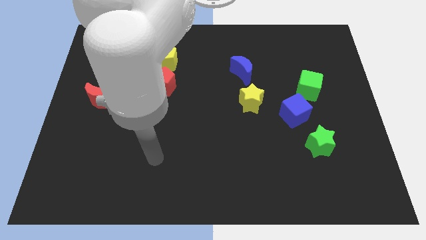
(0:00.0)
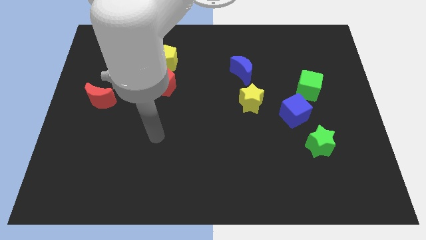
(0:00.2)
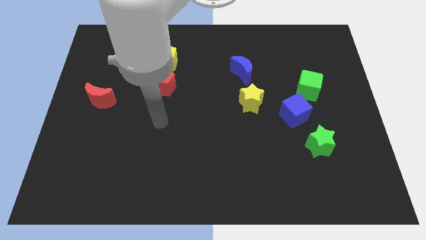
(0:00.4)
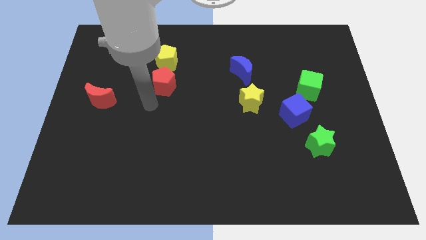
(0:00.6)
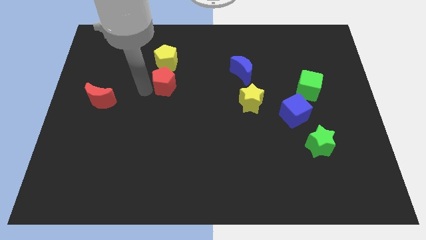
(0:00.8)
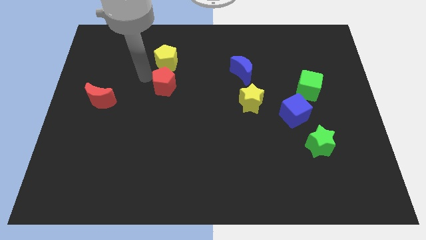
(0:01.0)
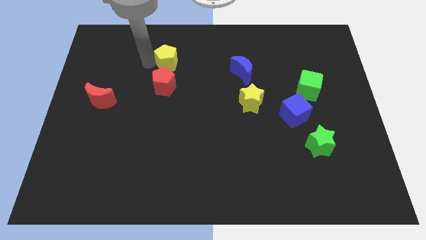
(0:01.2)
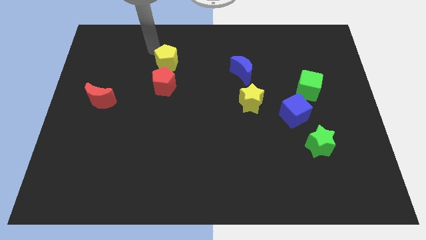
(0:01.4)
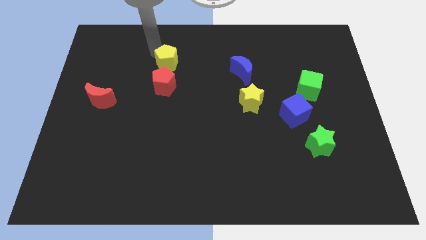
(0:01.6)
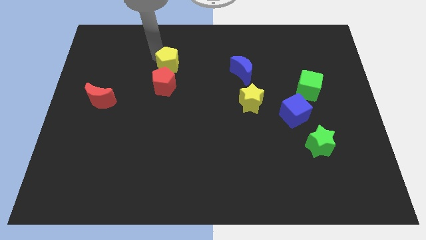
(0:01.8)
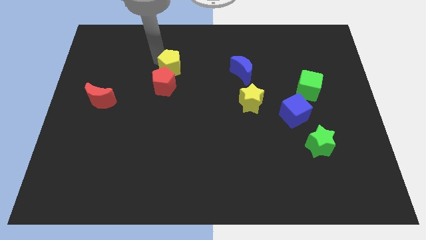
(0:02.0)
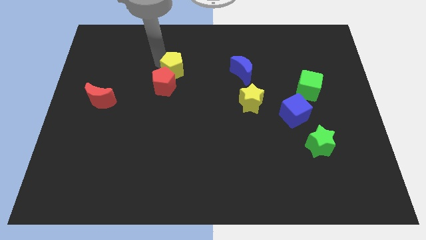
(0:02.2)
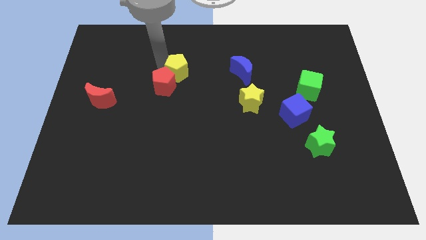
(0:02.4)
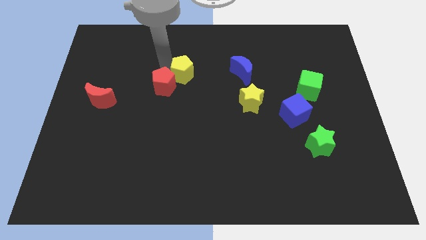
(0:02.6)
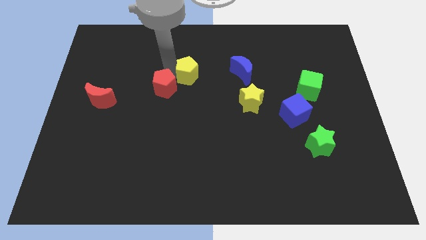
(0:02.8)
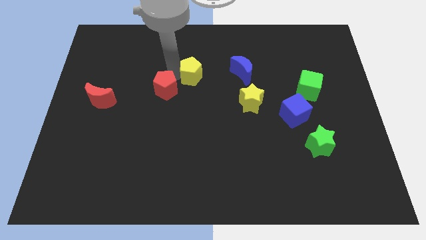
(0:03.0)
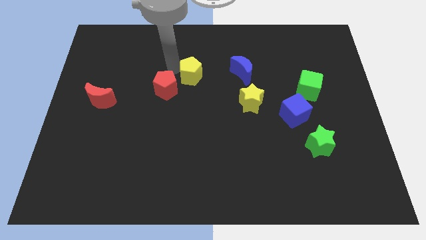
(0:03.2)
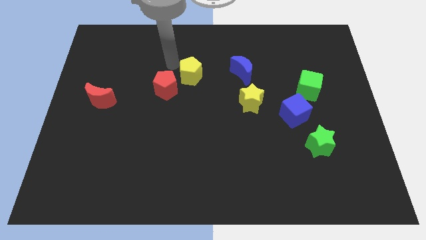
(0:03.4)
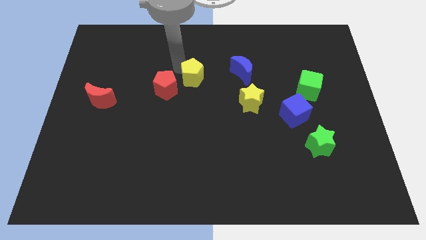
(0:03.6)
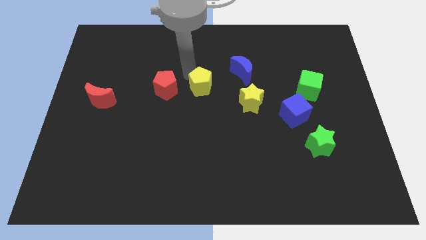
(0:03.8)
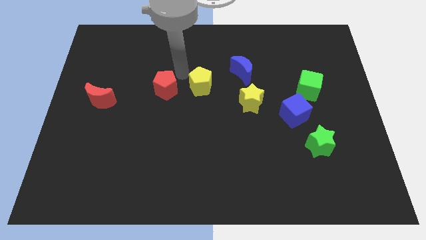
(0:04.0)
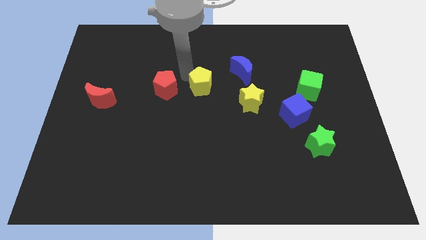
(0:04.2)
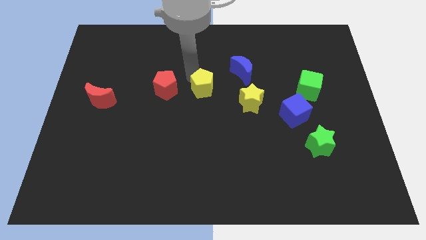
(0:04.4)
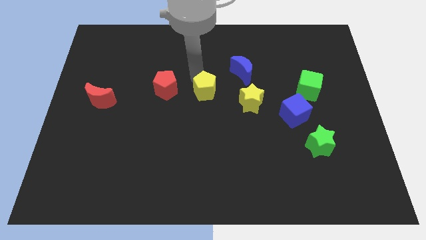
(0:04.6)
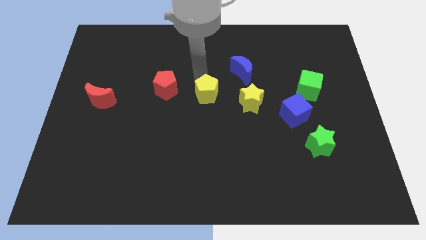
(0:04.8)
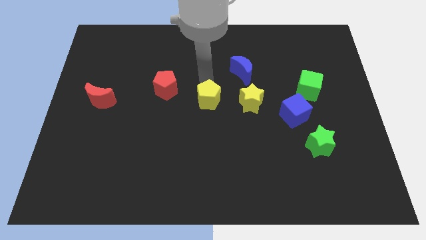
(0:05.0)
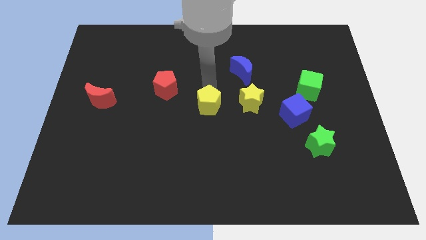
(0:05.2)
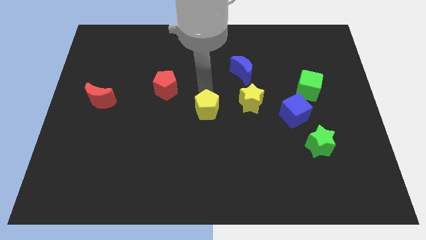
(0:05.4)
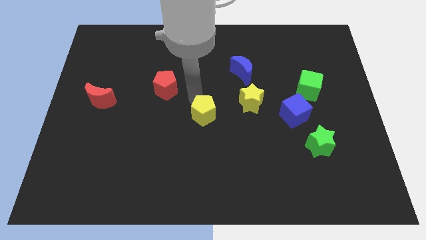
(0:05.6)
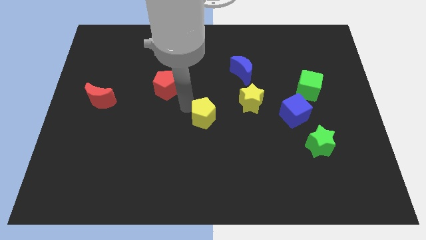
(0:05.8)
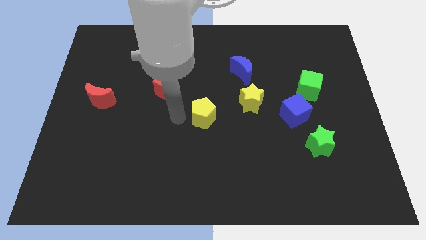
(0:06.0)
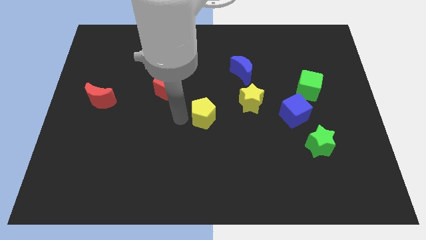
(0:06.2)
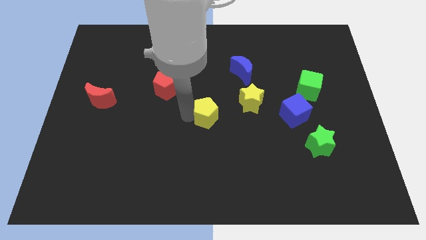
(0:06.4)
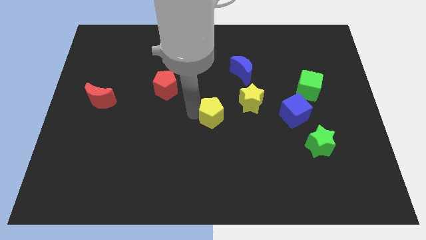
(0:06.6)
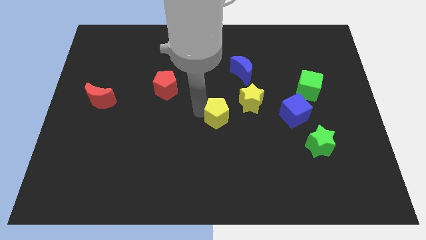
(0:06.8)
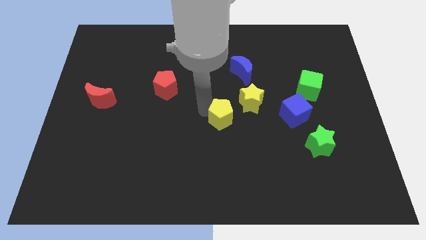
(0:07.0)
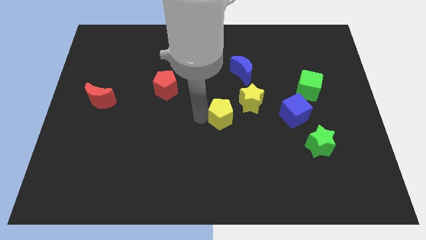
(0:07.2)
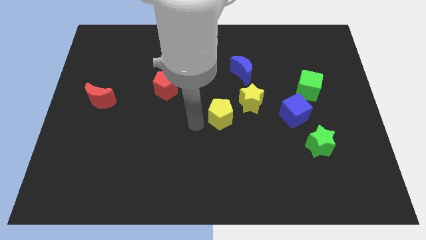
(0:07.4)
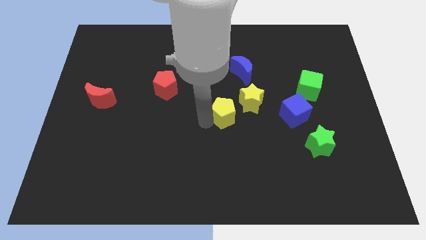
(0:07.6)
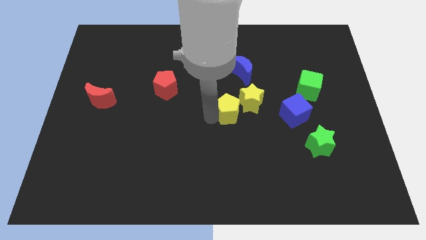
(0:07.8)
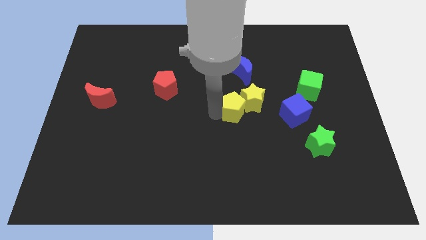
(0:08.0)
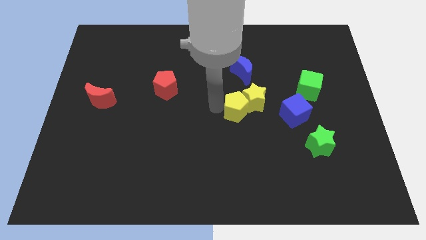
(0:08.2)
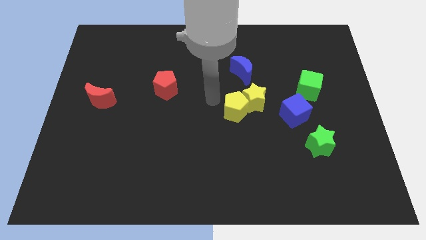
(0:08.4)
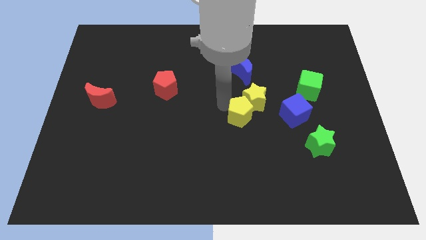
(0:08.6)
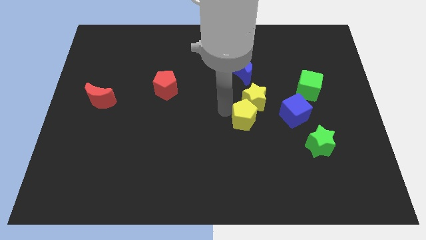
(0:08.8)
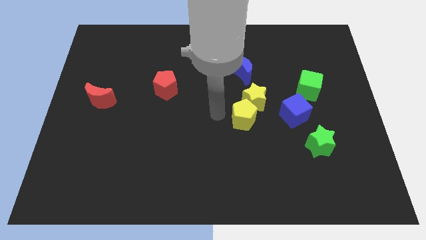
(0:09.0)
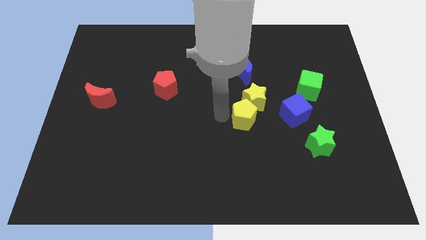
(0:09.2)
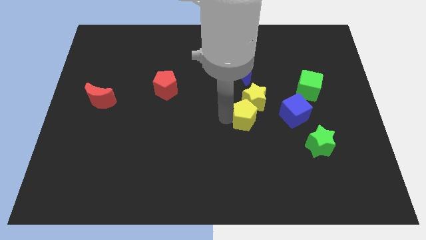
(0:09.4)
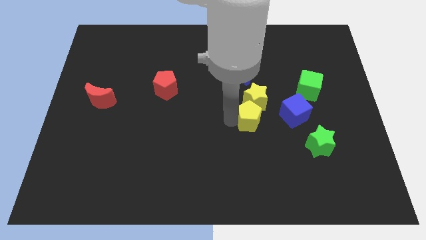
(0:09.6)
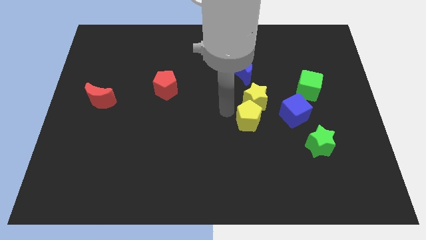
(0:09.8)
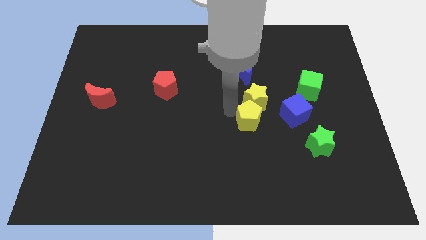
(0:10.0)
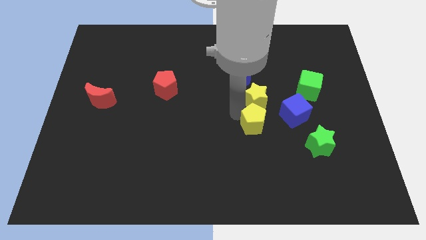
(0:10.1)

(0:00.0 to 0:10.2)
slide the yellow pentagon to the bottom left of the blue cube

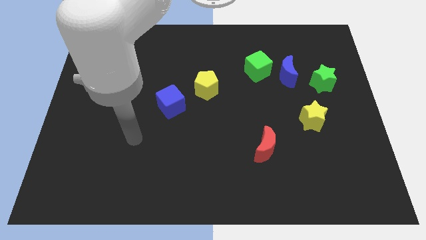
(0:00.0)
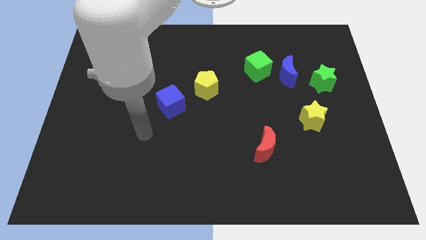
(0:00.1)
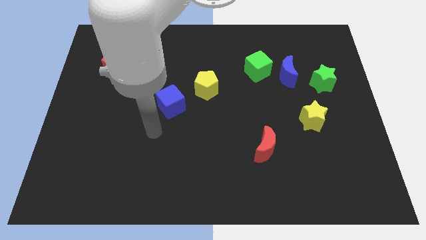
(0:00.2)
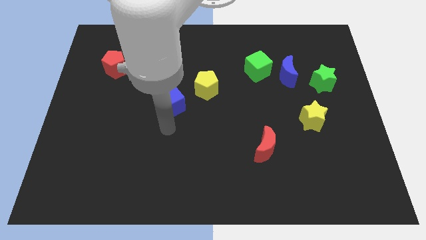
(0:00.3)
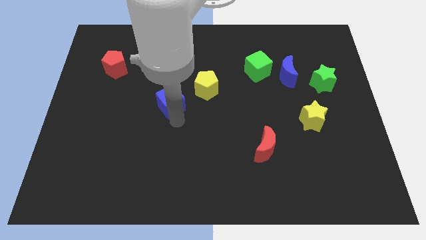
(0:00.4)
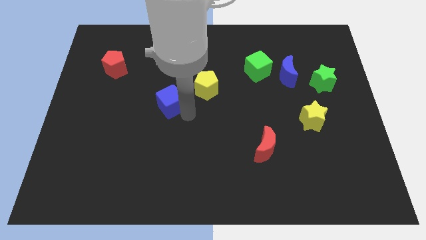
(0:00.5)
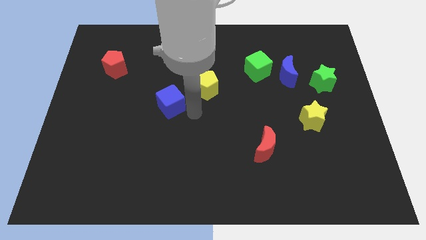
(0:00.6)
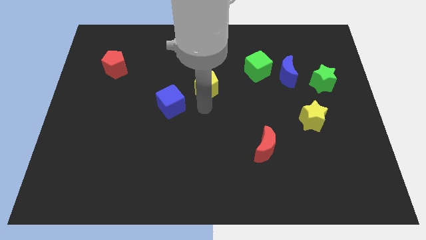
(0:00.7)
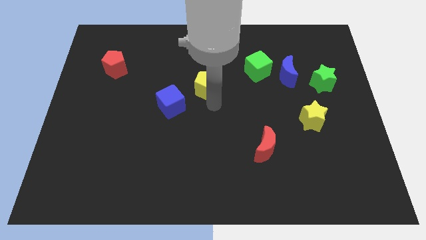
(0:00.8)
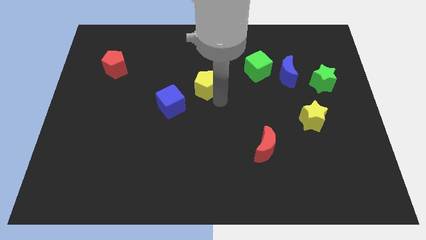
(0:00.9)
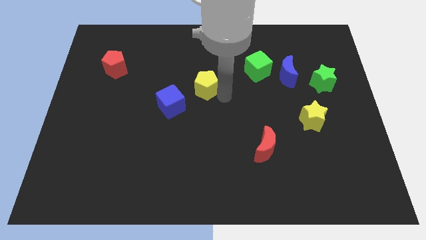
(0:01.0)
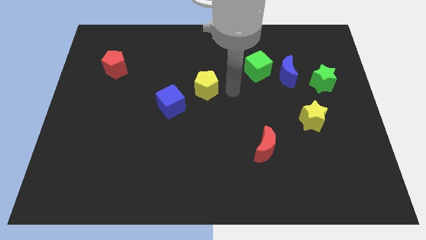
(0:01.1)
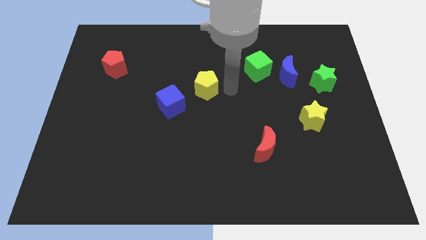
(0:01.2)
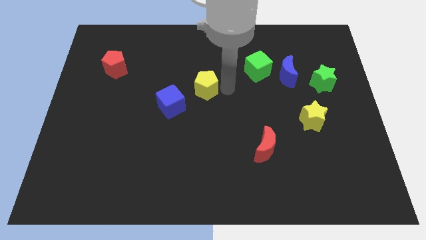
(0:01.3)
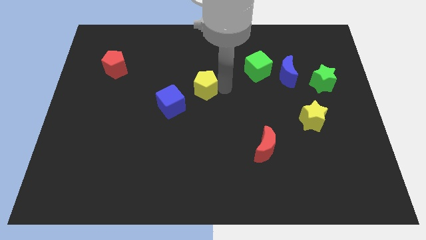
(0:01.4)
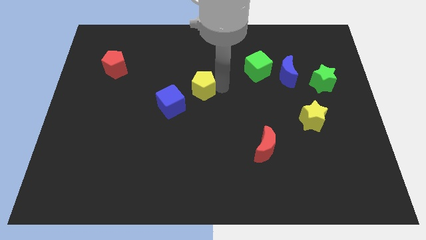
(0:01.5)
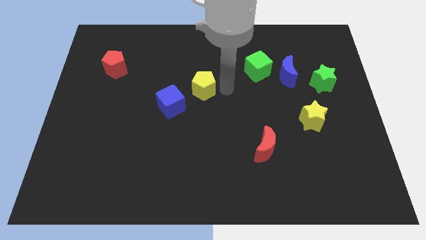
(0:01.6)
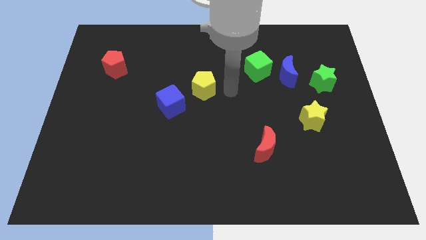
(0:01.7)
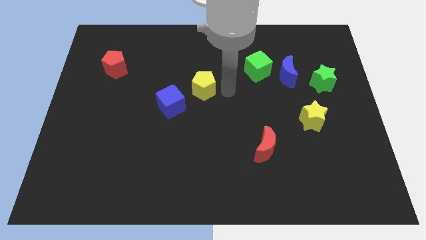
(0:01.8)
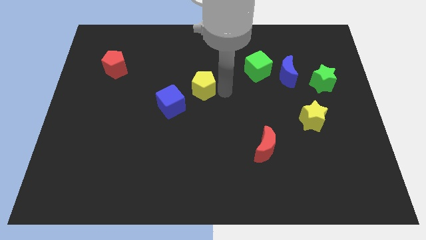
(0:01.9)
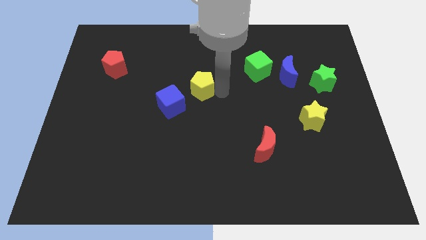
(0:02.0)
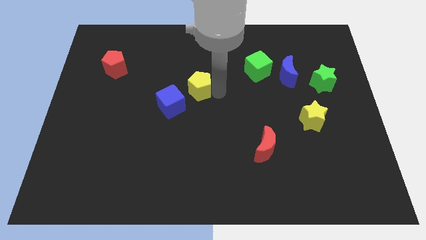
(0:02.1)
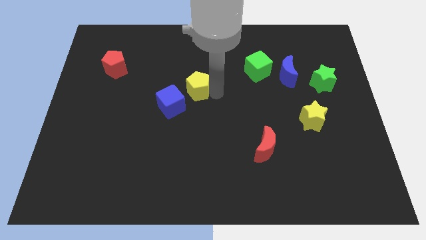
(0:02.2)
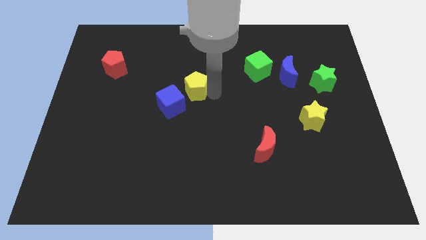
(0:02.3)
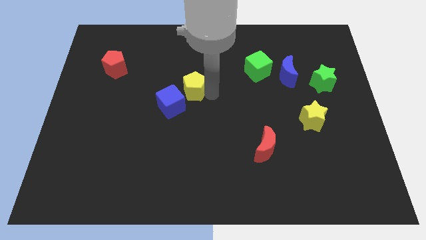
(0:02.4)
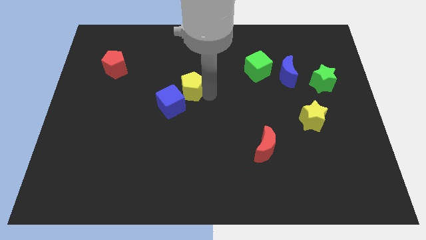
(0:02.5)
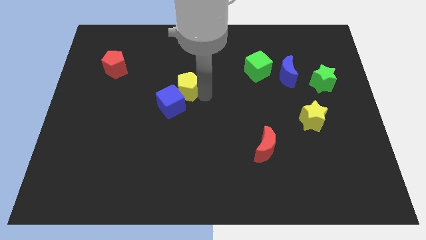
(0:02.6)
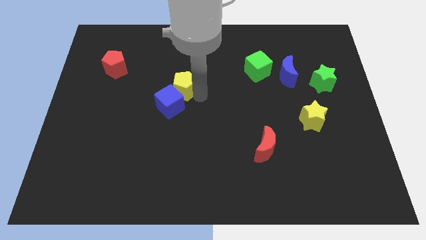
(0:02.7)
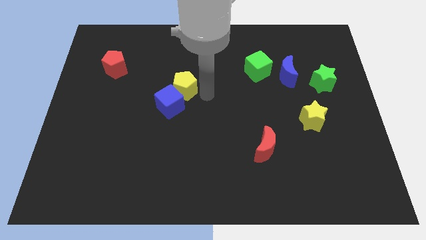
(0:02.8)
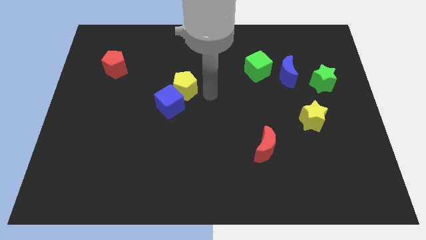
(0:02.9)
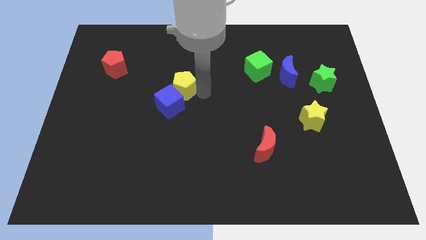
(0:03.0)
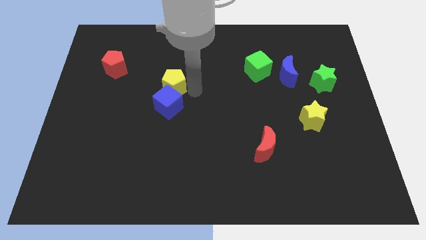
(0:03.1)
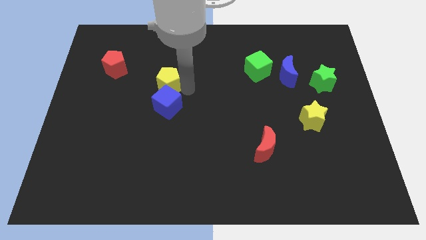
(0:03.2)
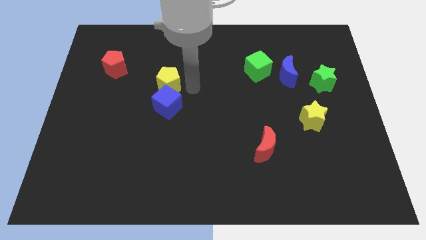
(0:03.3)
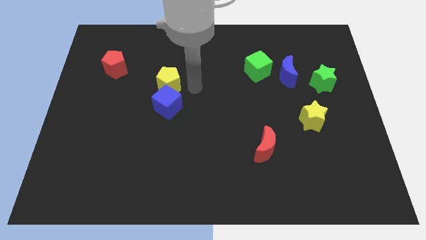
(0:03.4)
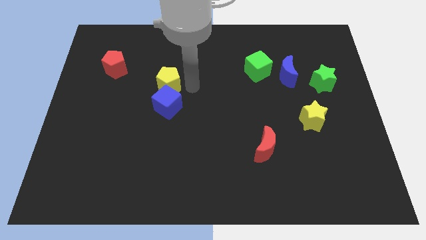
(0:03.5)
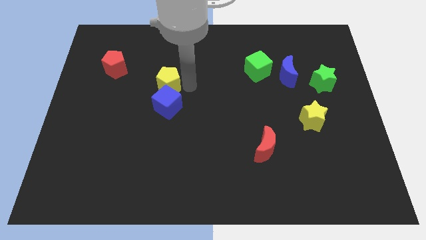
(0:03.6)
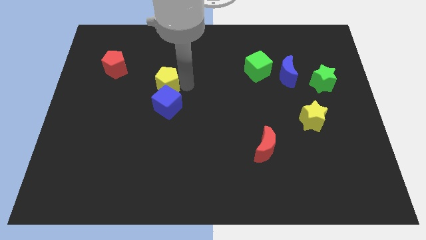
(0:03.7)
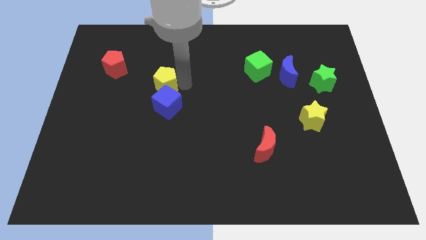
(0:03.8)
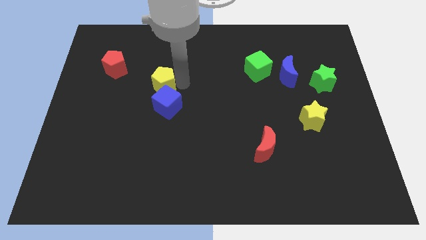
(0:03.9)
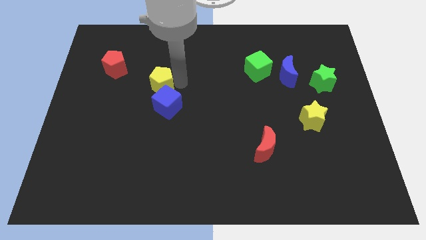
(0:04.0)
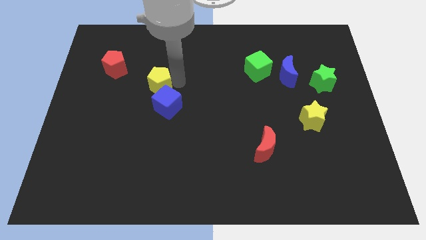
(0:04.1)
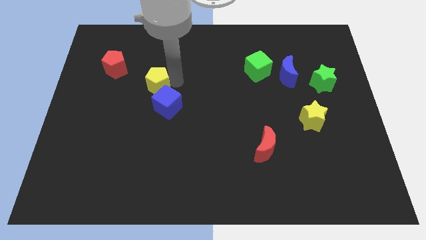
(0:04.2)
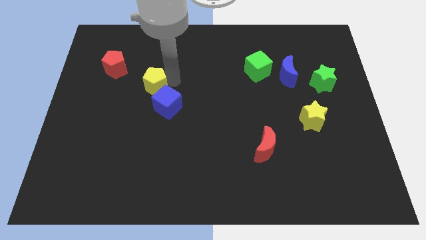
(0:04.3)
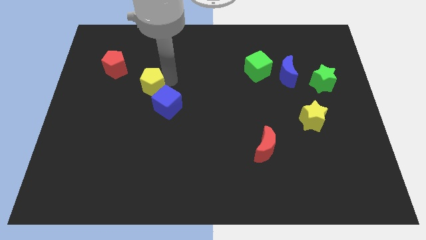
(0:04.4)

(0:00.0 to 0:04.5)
push the yellow pentagon to the bottom right side of the red pentagon
